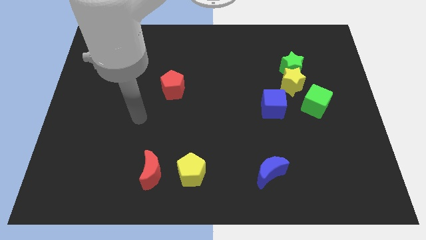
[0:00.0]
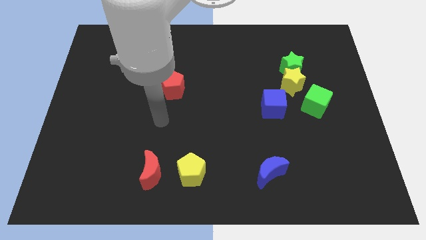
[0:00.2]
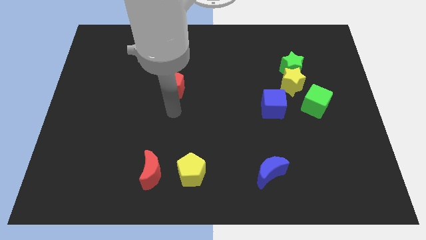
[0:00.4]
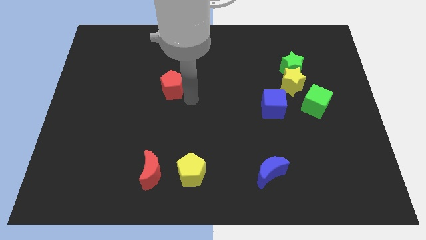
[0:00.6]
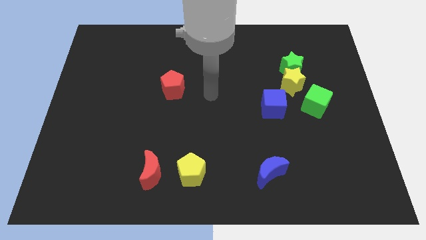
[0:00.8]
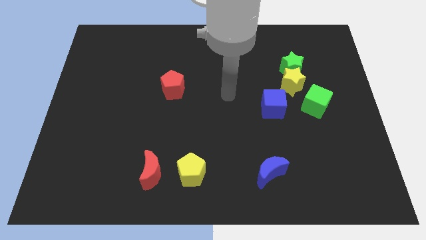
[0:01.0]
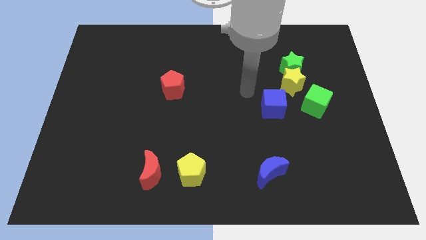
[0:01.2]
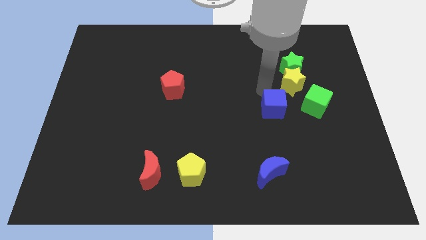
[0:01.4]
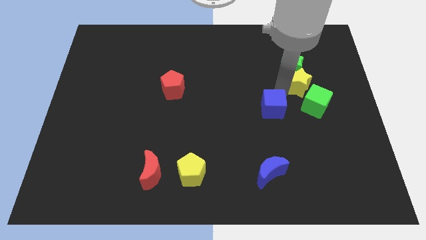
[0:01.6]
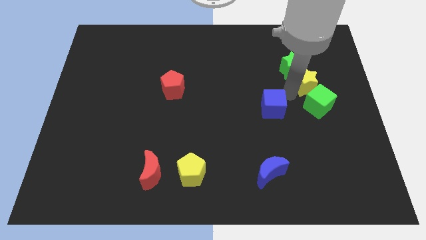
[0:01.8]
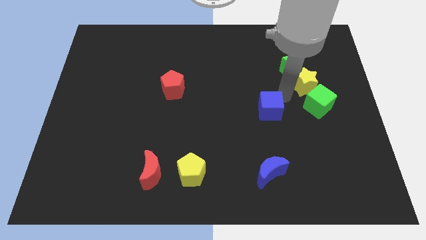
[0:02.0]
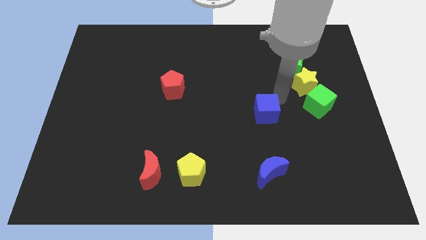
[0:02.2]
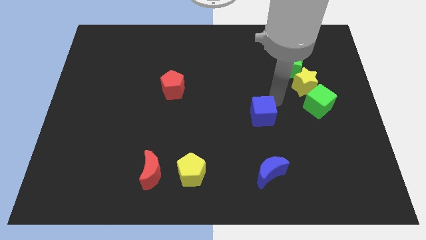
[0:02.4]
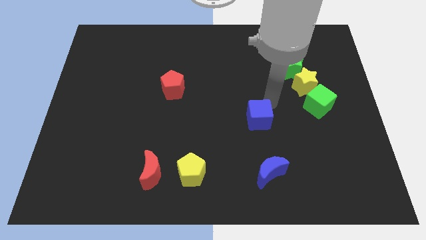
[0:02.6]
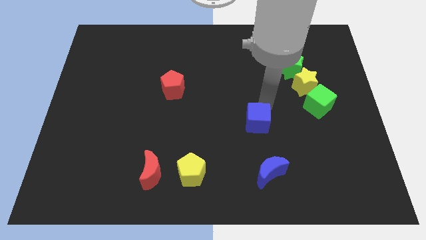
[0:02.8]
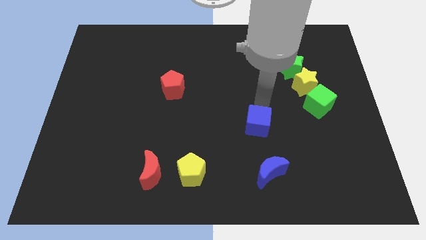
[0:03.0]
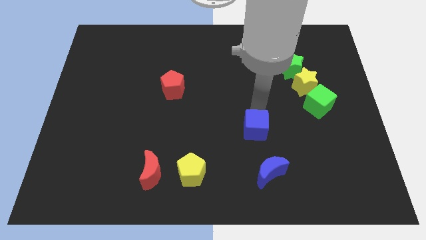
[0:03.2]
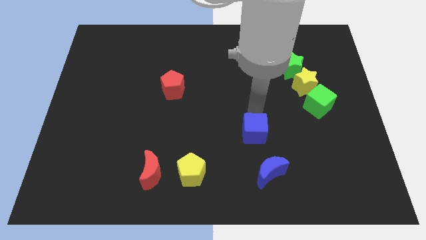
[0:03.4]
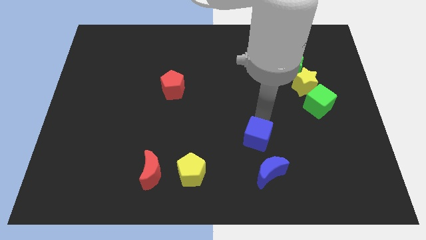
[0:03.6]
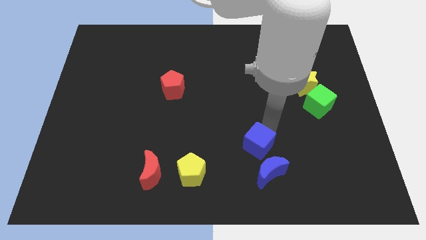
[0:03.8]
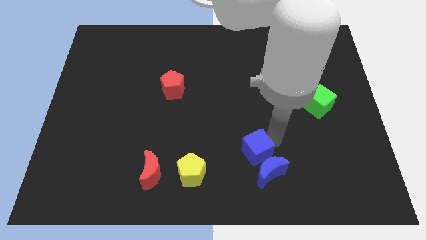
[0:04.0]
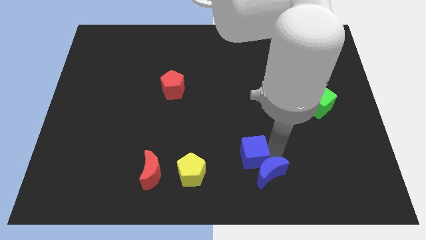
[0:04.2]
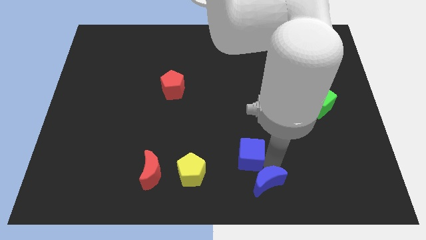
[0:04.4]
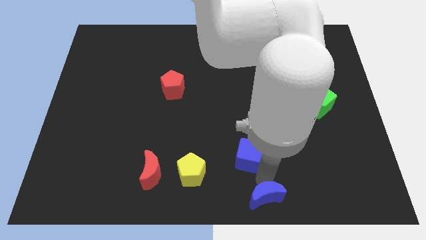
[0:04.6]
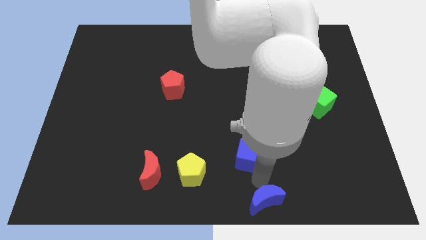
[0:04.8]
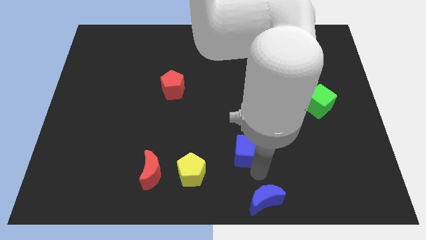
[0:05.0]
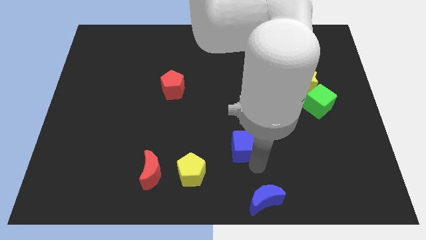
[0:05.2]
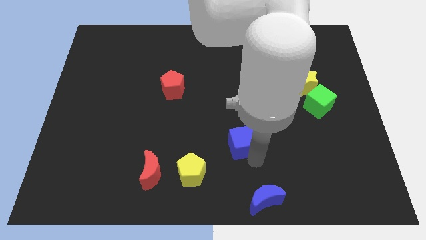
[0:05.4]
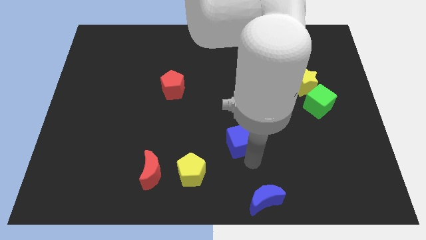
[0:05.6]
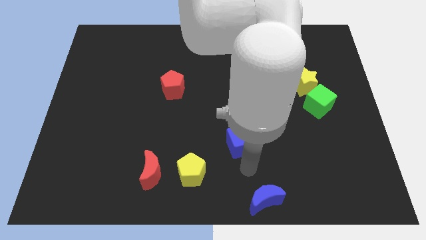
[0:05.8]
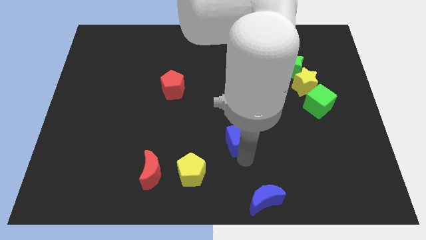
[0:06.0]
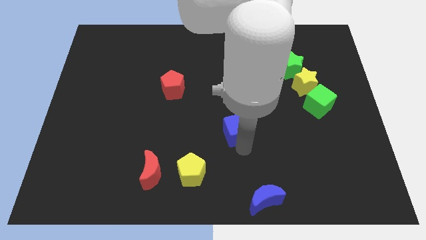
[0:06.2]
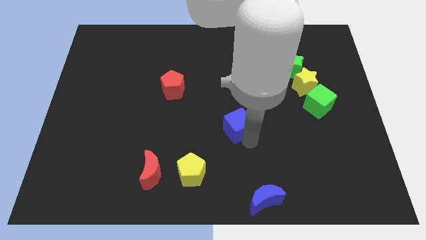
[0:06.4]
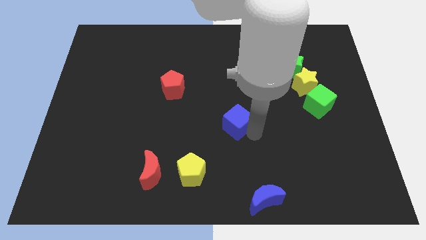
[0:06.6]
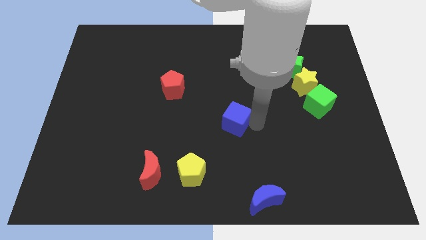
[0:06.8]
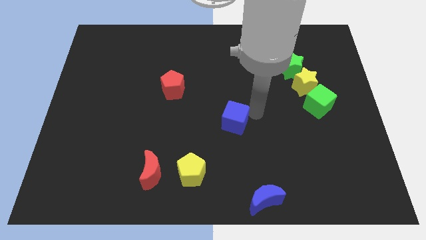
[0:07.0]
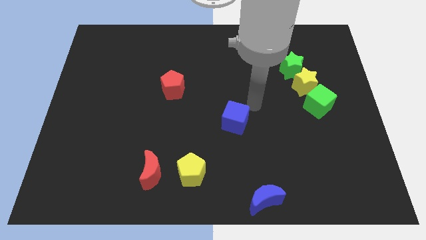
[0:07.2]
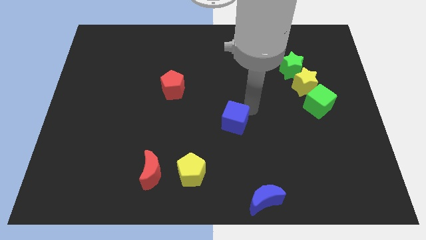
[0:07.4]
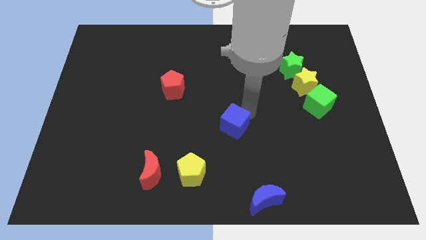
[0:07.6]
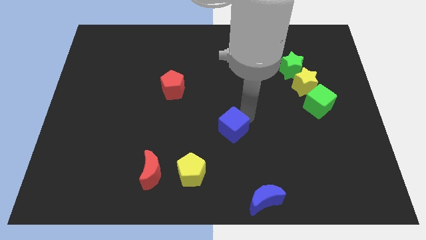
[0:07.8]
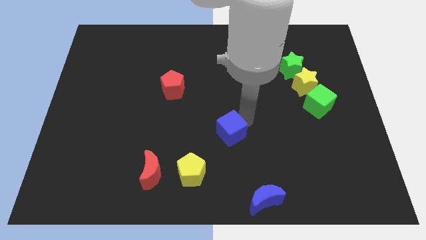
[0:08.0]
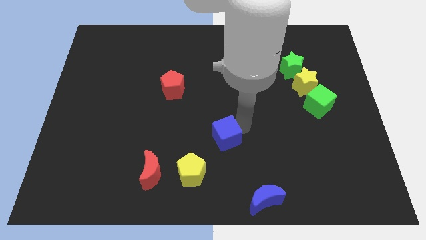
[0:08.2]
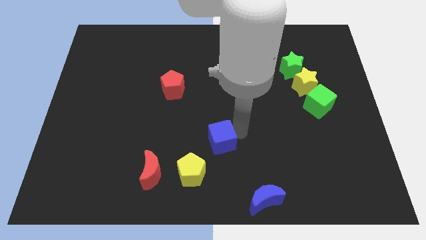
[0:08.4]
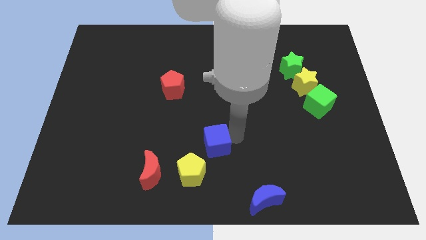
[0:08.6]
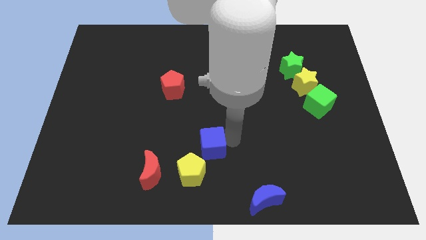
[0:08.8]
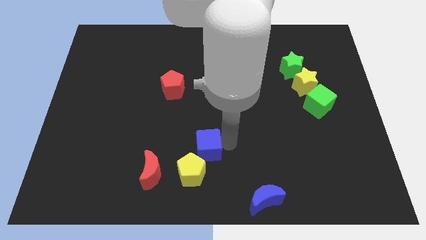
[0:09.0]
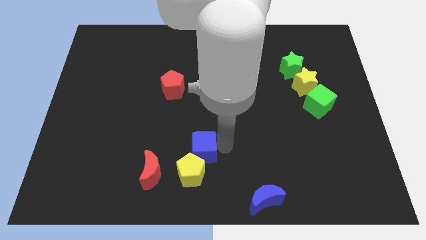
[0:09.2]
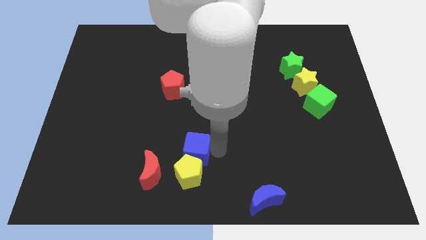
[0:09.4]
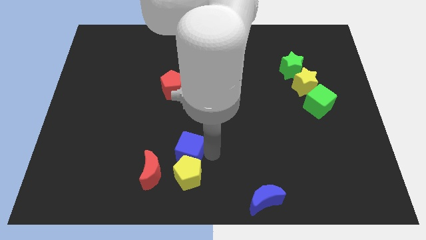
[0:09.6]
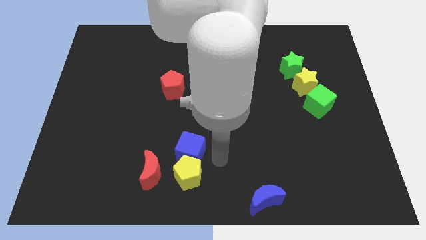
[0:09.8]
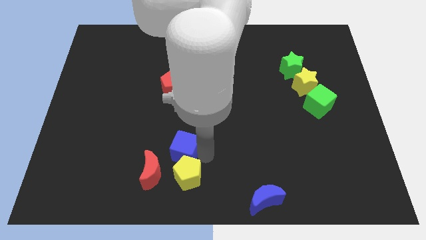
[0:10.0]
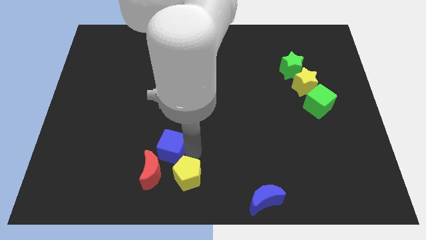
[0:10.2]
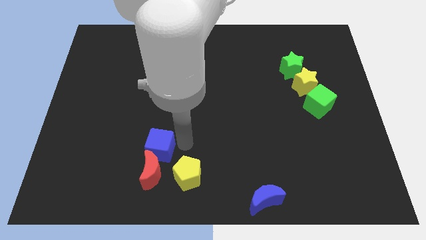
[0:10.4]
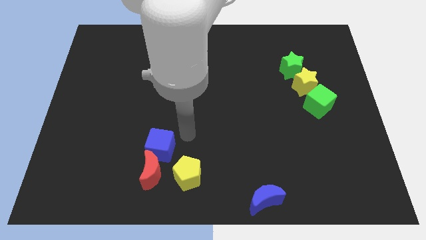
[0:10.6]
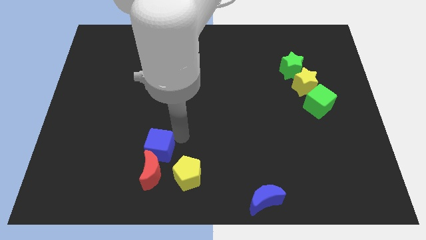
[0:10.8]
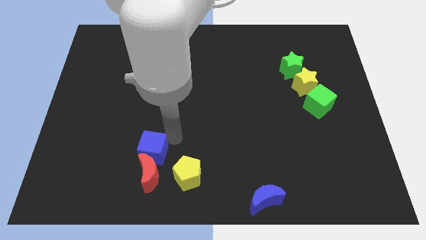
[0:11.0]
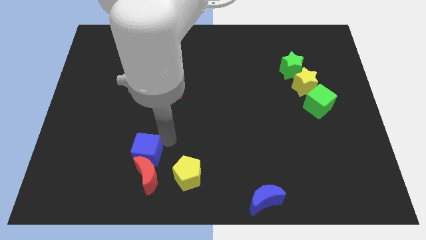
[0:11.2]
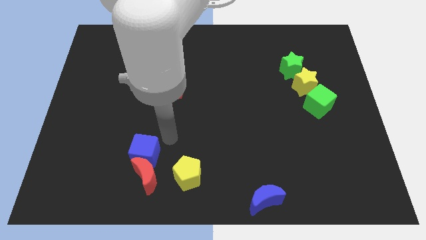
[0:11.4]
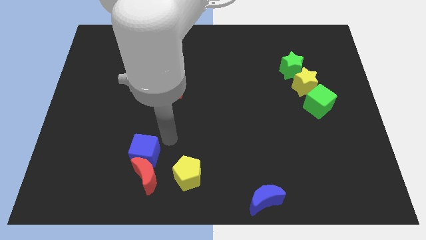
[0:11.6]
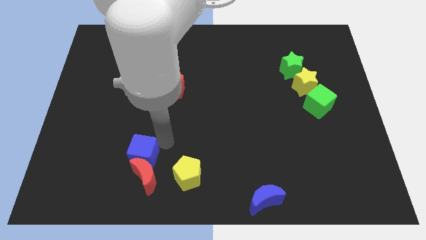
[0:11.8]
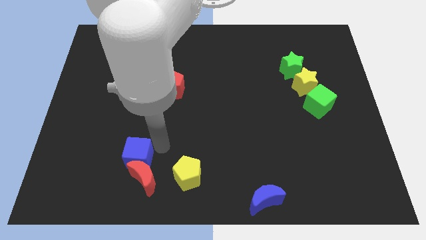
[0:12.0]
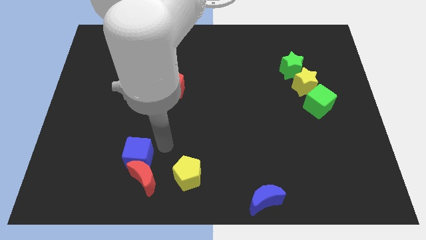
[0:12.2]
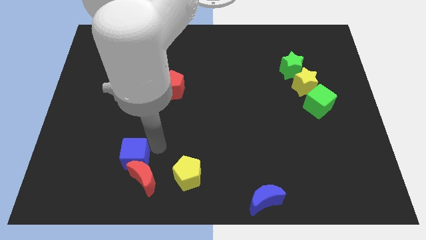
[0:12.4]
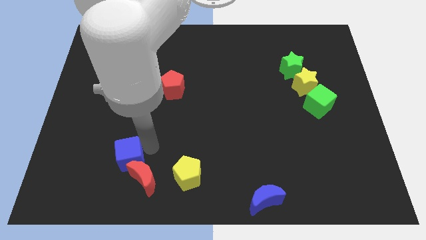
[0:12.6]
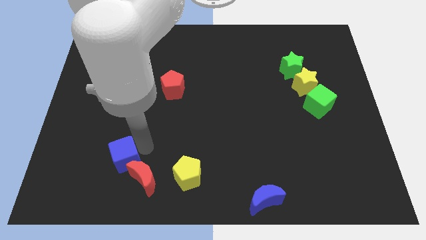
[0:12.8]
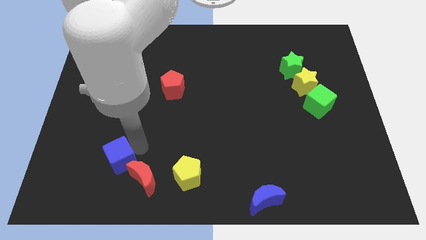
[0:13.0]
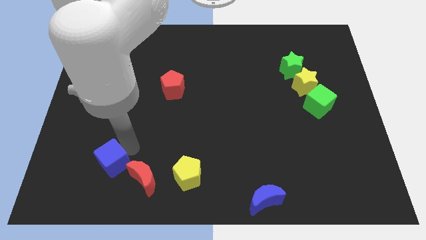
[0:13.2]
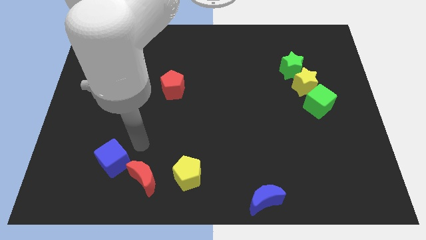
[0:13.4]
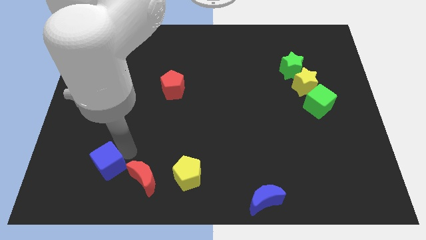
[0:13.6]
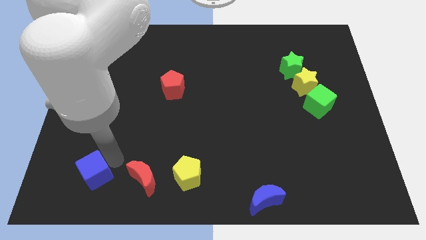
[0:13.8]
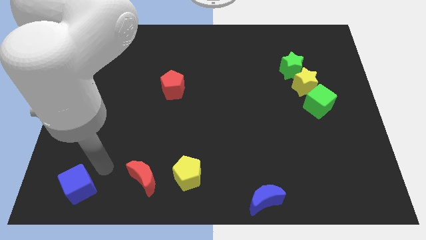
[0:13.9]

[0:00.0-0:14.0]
move the blue cube to the bottom left corner
